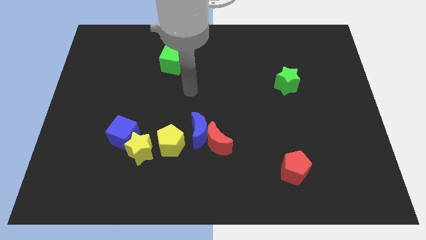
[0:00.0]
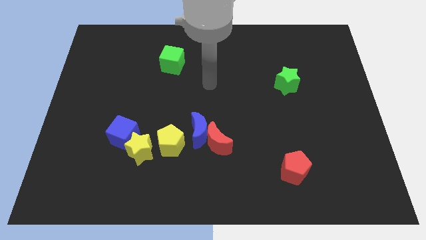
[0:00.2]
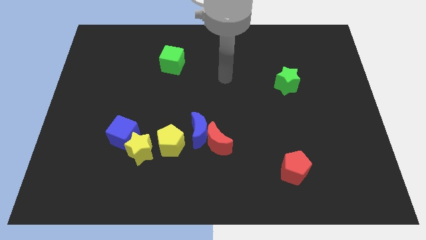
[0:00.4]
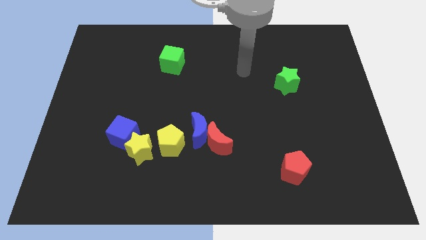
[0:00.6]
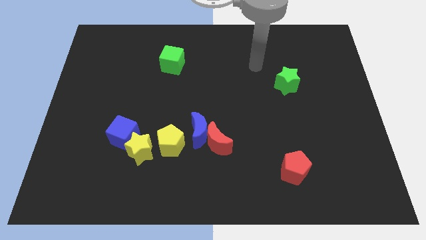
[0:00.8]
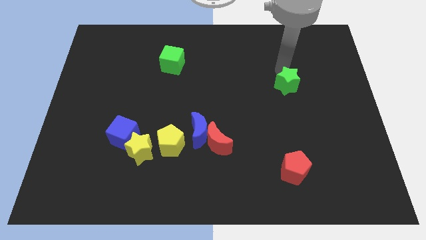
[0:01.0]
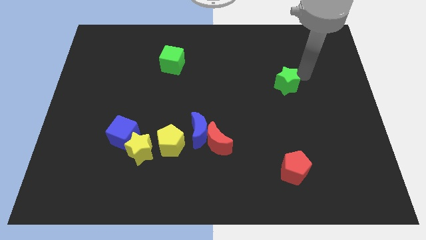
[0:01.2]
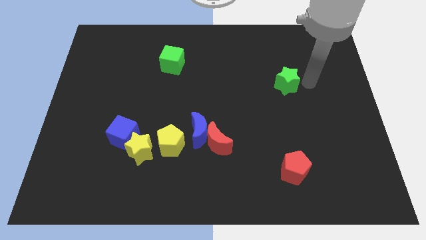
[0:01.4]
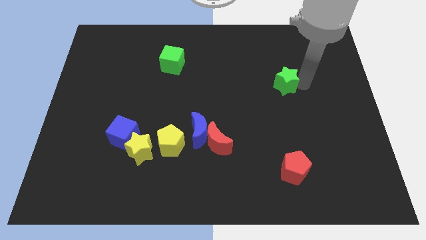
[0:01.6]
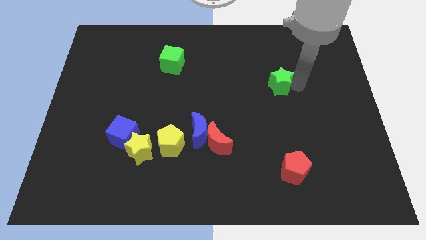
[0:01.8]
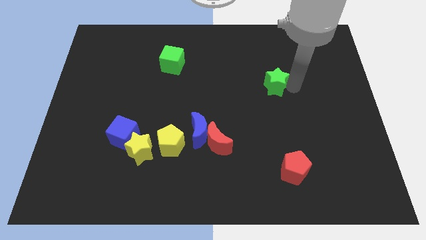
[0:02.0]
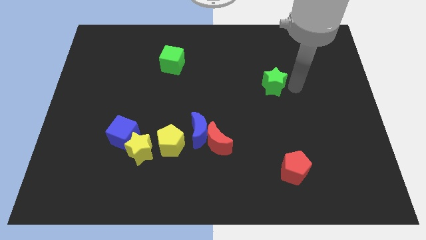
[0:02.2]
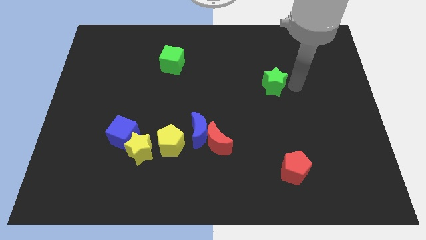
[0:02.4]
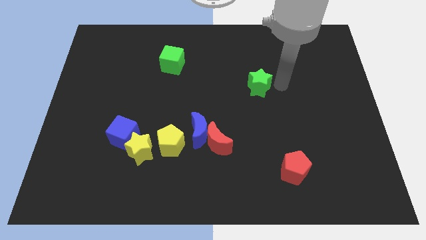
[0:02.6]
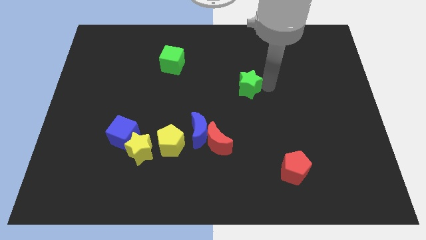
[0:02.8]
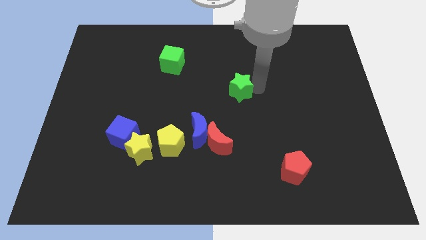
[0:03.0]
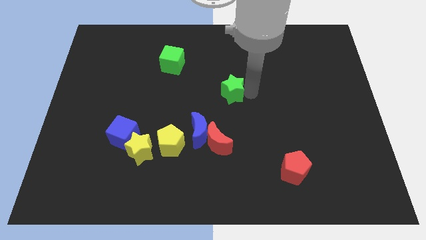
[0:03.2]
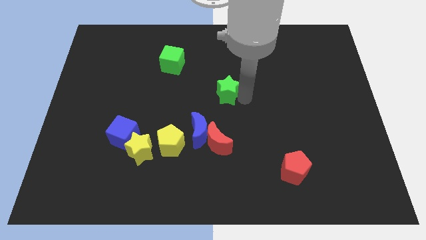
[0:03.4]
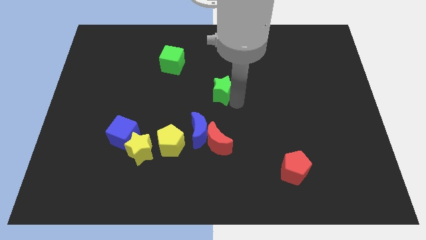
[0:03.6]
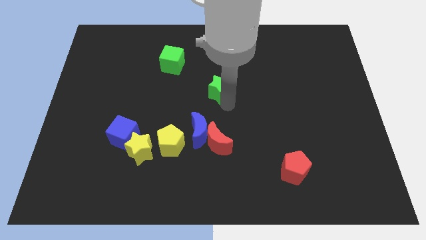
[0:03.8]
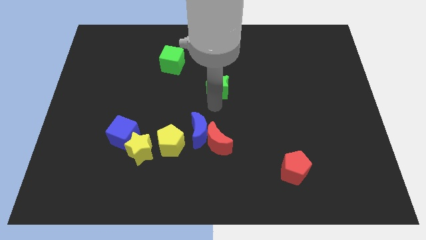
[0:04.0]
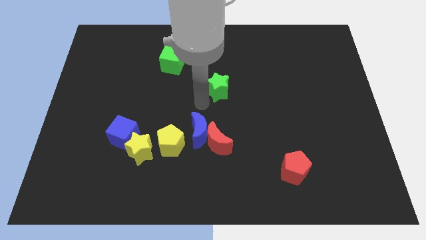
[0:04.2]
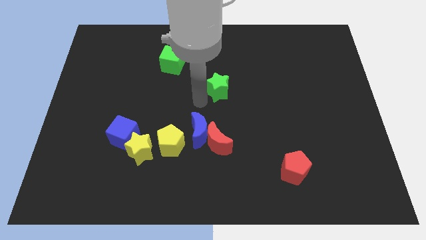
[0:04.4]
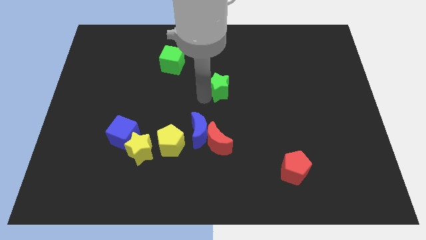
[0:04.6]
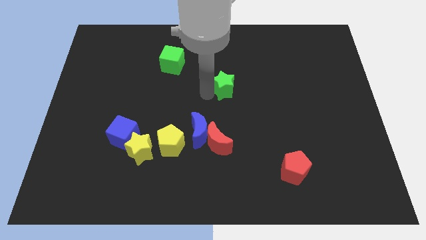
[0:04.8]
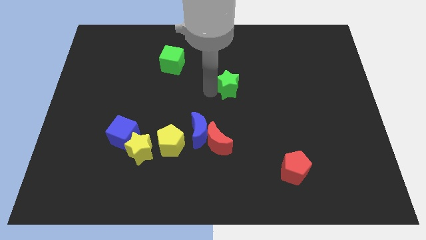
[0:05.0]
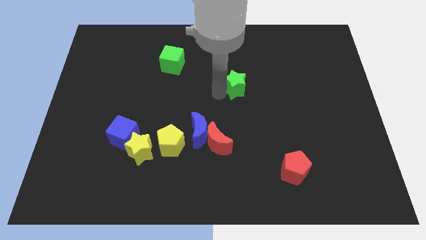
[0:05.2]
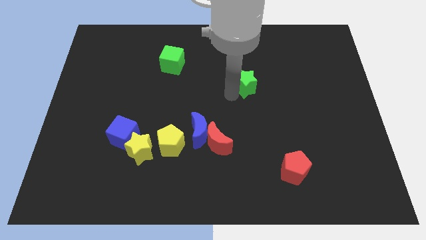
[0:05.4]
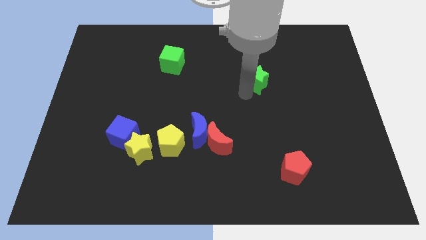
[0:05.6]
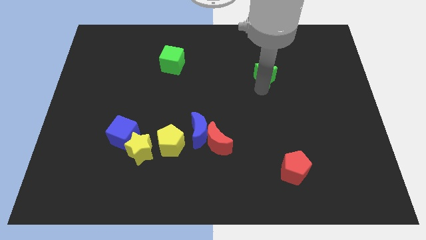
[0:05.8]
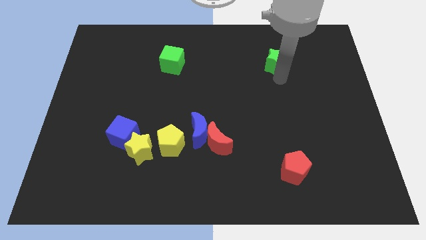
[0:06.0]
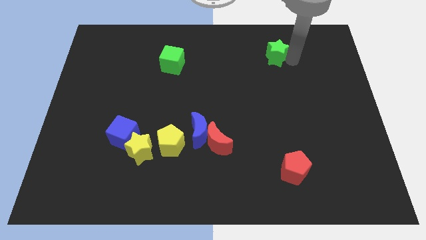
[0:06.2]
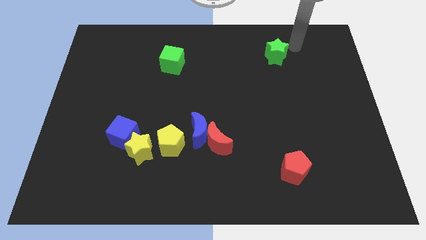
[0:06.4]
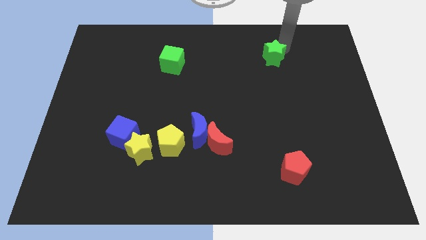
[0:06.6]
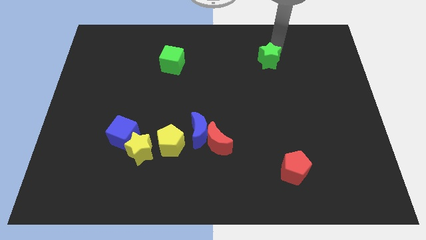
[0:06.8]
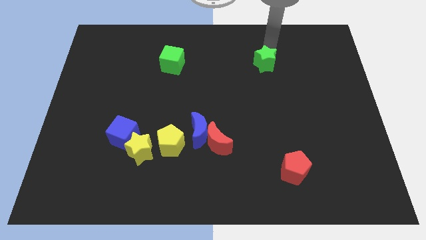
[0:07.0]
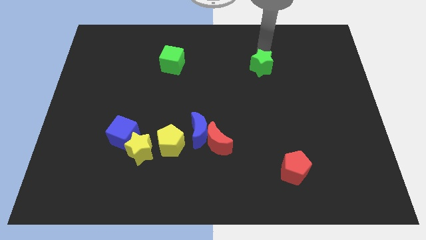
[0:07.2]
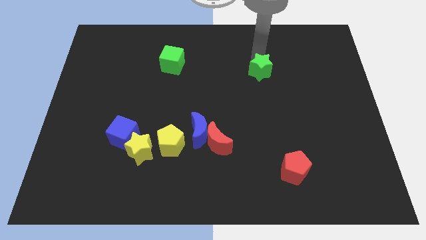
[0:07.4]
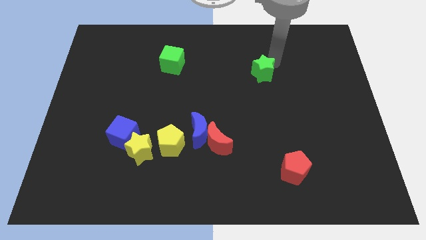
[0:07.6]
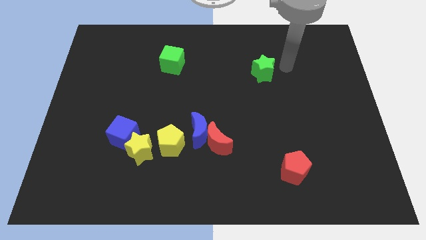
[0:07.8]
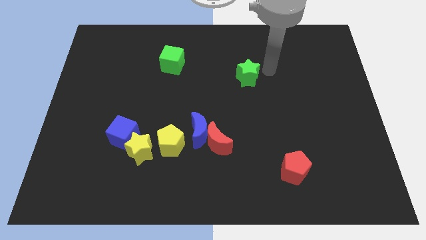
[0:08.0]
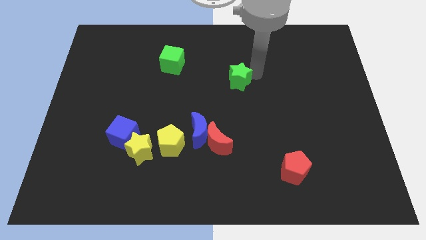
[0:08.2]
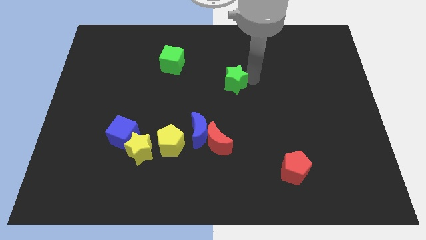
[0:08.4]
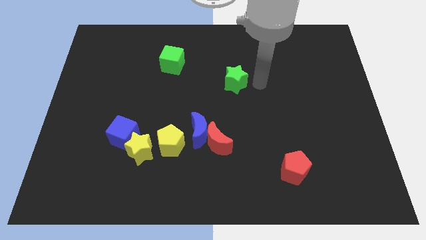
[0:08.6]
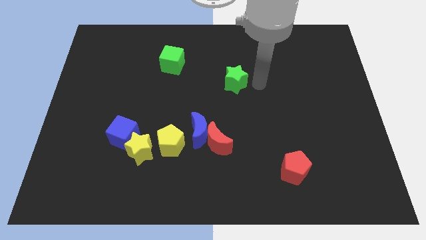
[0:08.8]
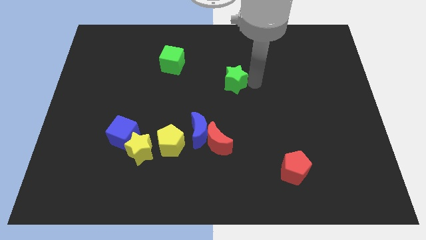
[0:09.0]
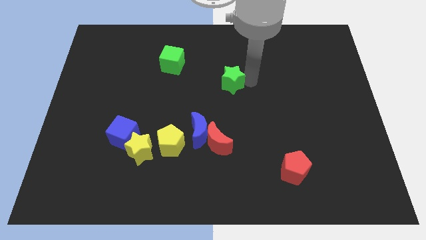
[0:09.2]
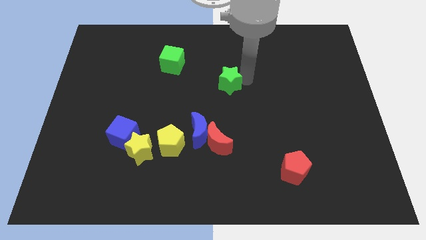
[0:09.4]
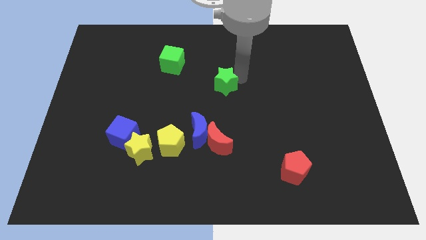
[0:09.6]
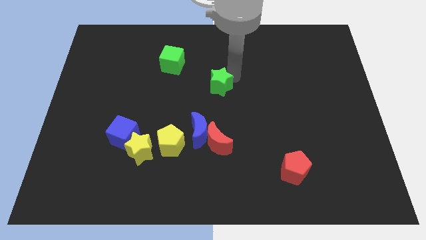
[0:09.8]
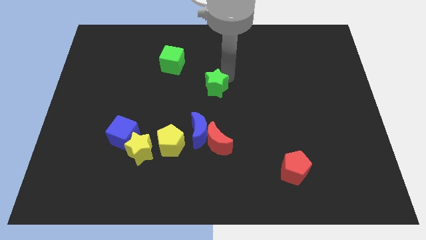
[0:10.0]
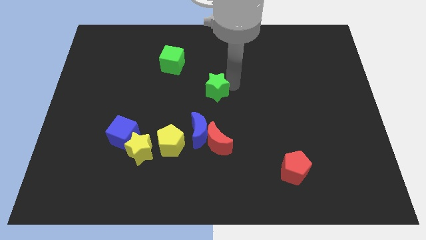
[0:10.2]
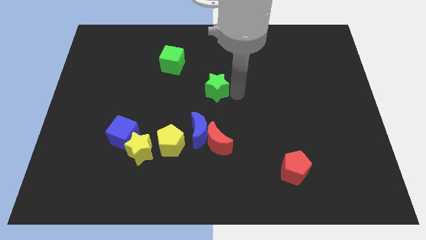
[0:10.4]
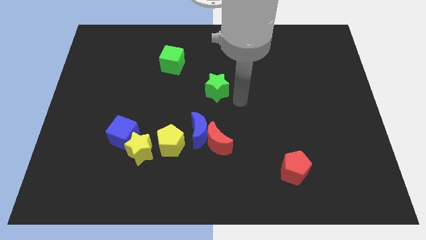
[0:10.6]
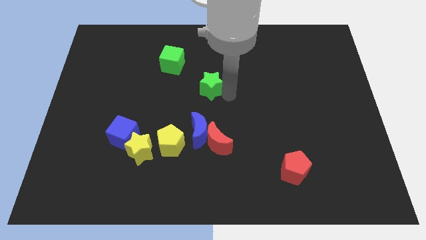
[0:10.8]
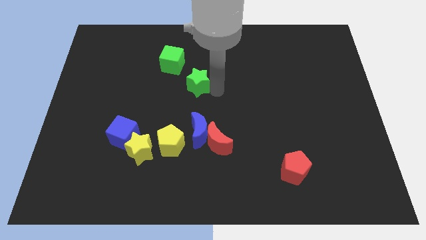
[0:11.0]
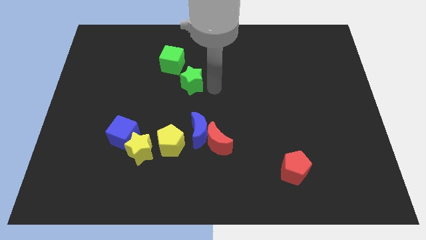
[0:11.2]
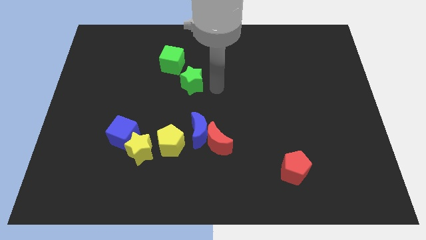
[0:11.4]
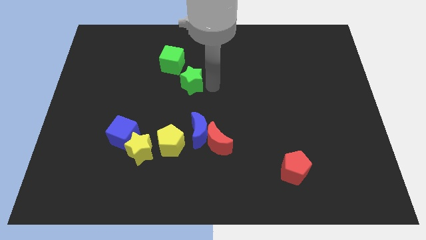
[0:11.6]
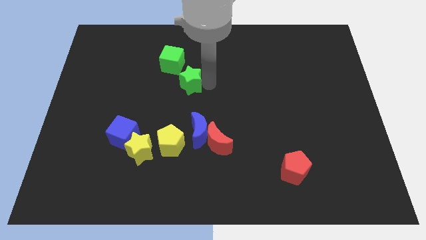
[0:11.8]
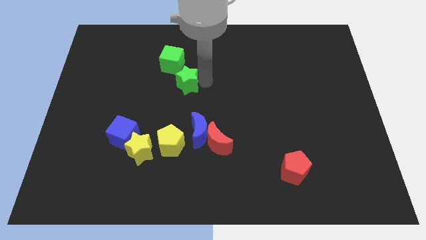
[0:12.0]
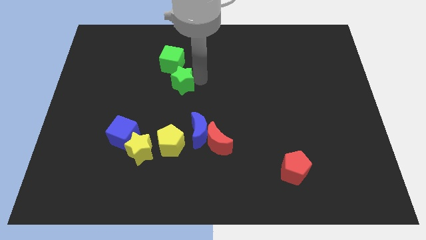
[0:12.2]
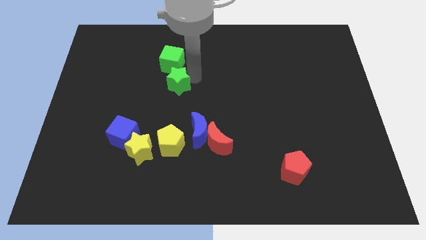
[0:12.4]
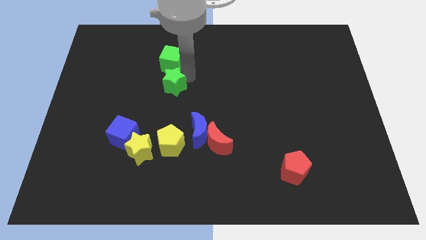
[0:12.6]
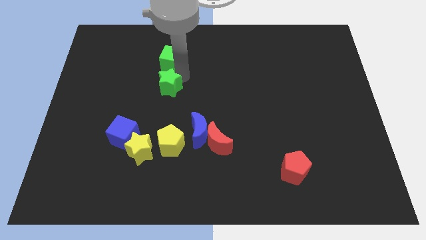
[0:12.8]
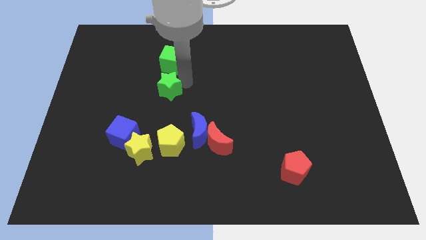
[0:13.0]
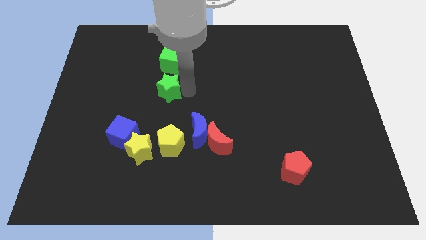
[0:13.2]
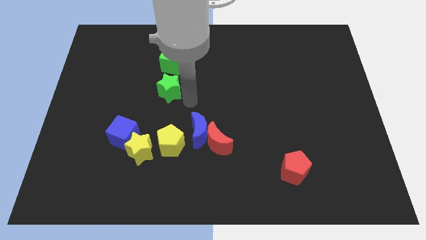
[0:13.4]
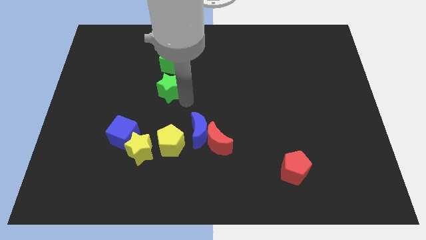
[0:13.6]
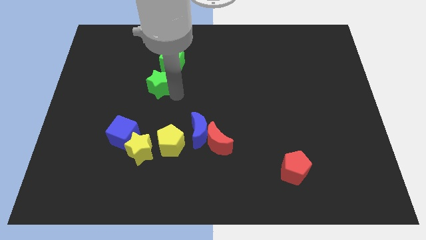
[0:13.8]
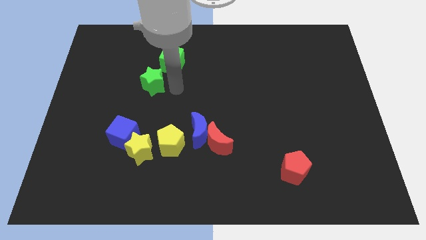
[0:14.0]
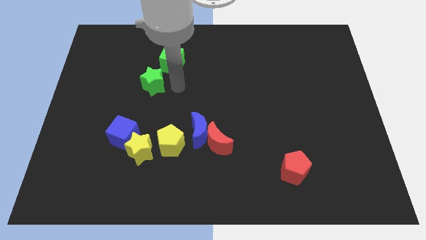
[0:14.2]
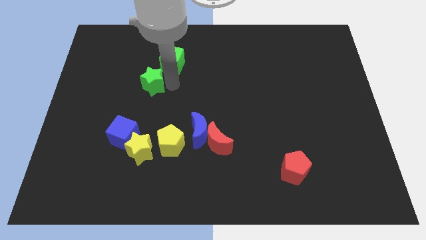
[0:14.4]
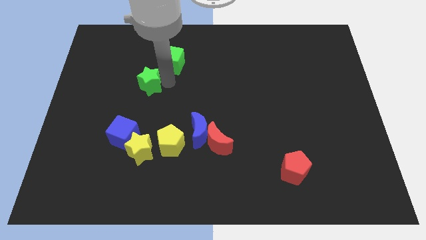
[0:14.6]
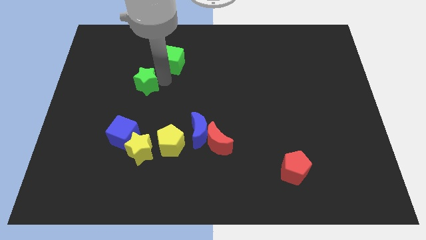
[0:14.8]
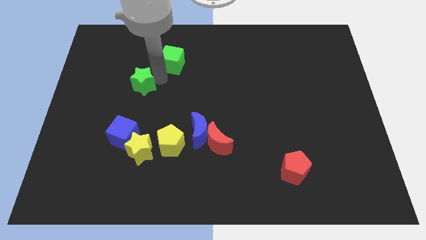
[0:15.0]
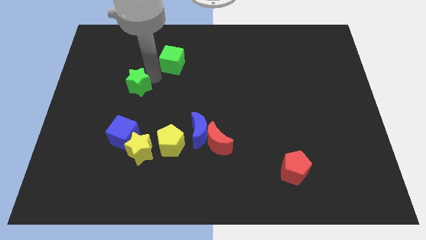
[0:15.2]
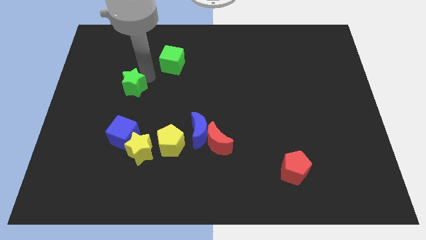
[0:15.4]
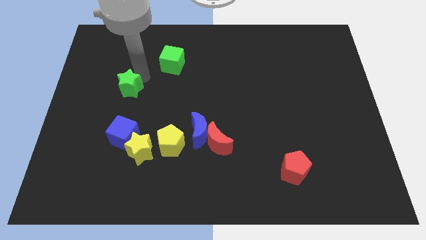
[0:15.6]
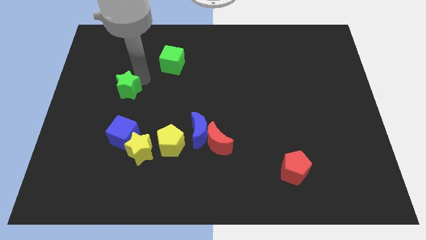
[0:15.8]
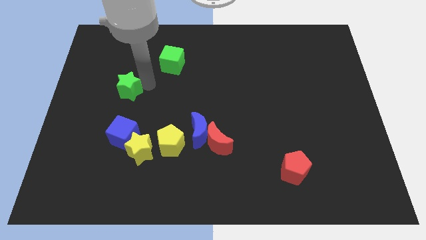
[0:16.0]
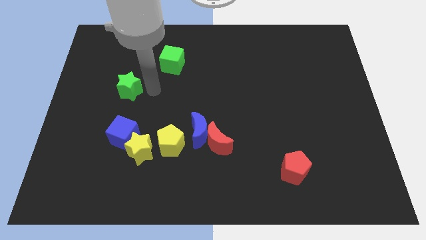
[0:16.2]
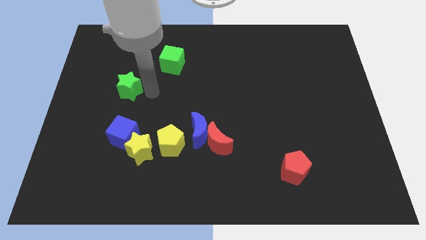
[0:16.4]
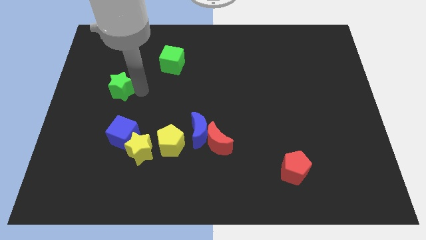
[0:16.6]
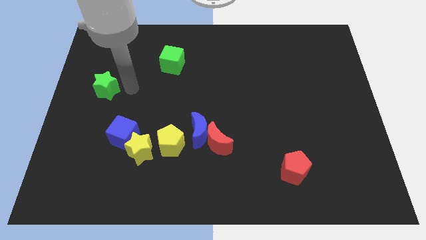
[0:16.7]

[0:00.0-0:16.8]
move the green star to the left side
